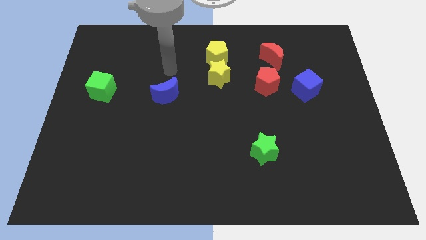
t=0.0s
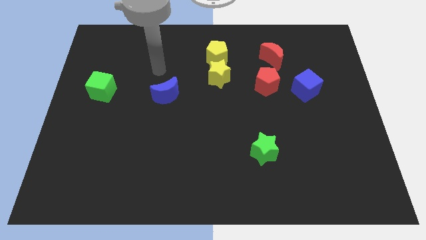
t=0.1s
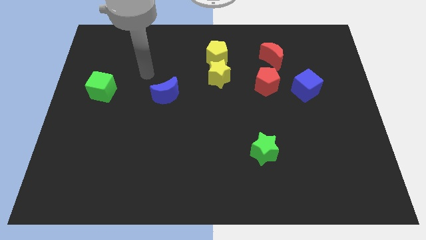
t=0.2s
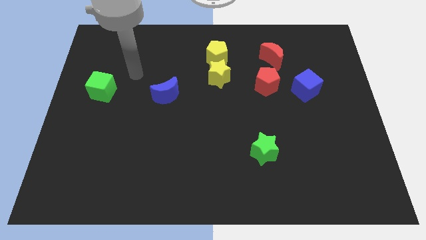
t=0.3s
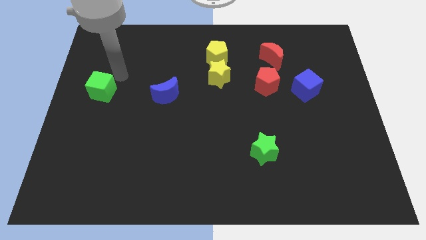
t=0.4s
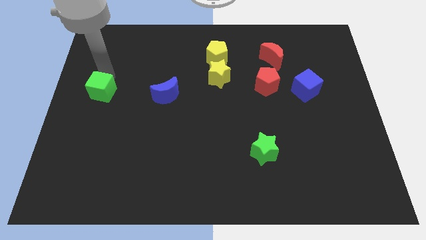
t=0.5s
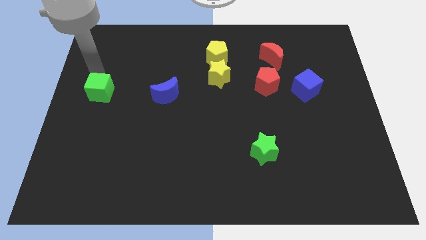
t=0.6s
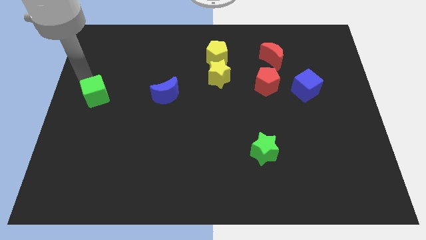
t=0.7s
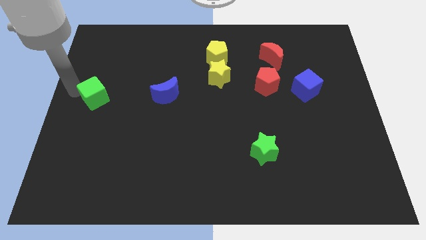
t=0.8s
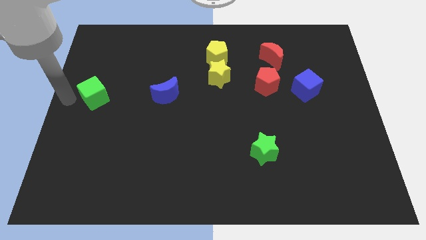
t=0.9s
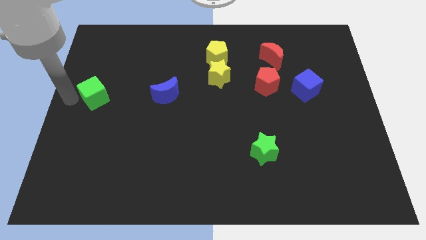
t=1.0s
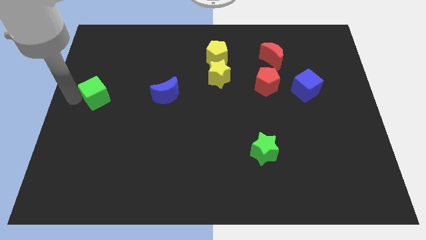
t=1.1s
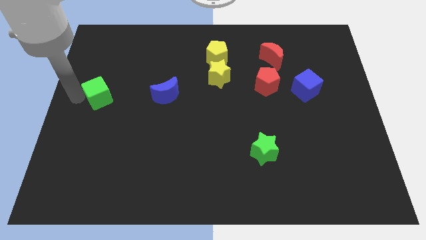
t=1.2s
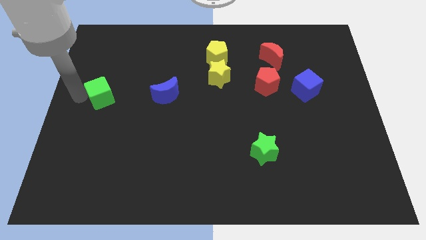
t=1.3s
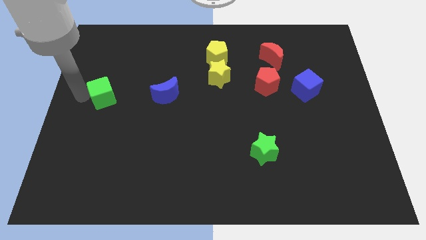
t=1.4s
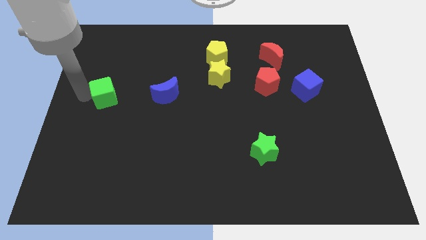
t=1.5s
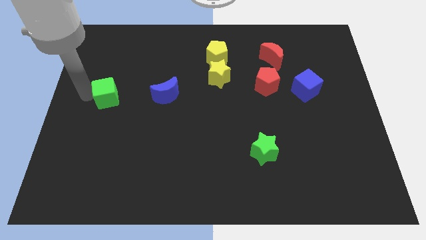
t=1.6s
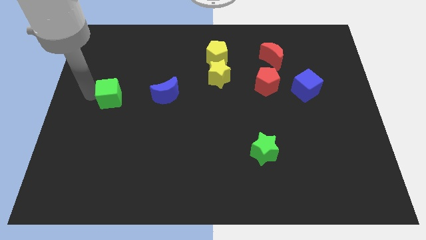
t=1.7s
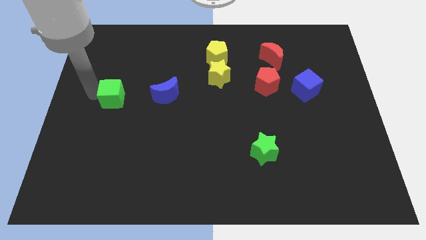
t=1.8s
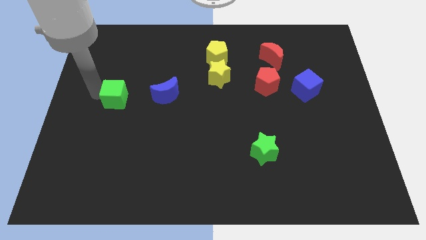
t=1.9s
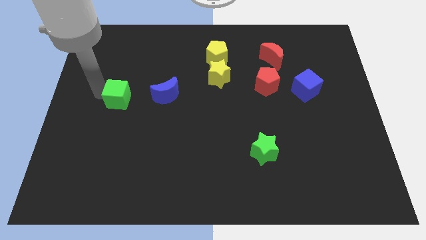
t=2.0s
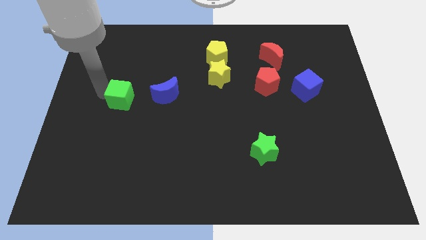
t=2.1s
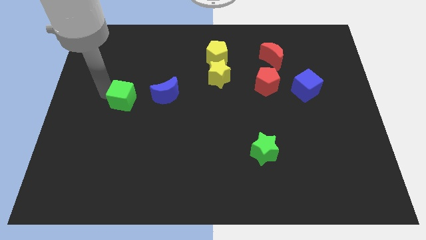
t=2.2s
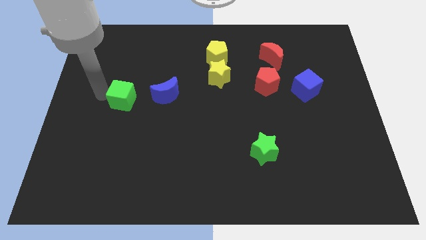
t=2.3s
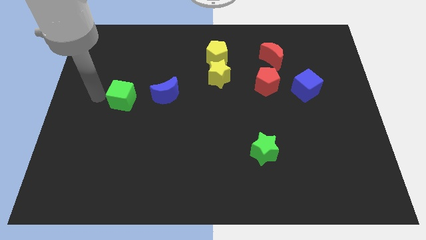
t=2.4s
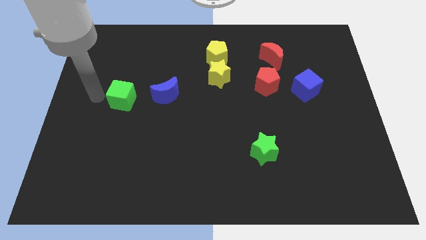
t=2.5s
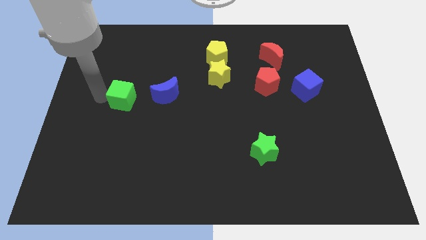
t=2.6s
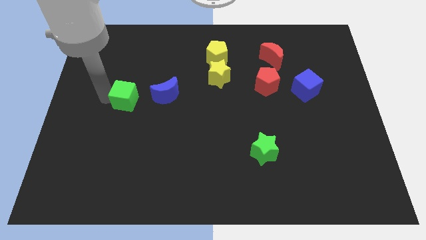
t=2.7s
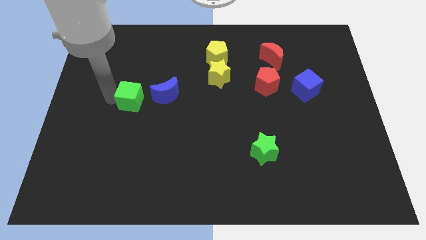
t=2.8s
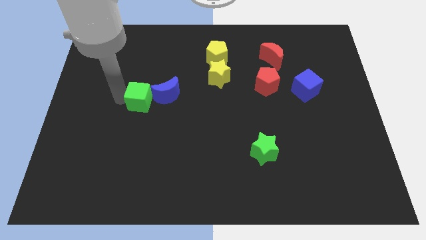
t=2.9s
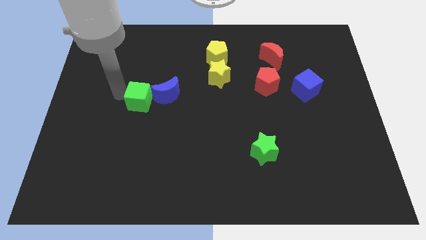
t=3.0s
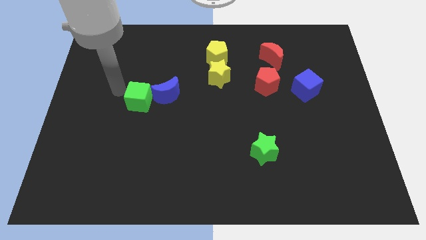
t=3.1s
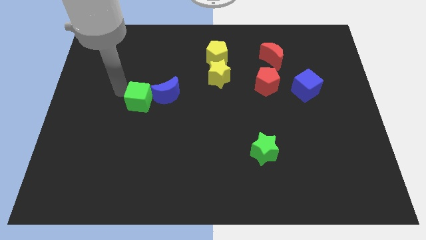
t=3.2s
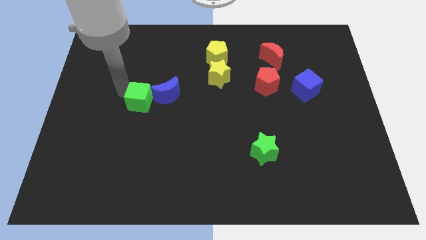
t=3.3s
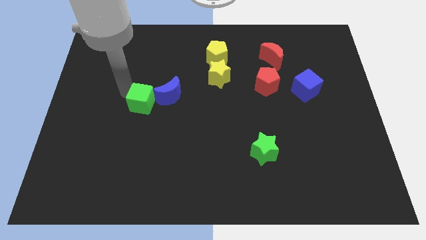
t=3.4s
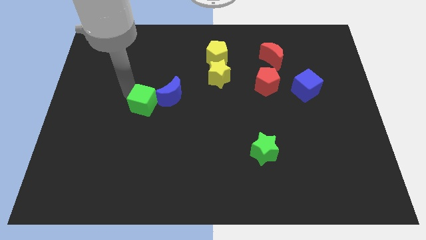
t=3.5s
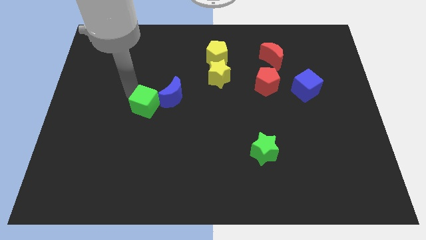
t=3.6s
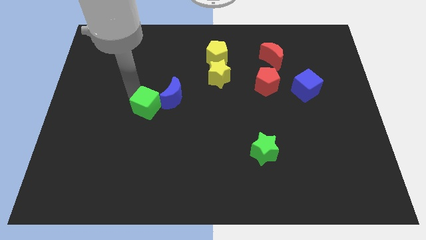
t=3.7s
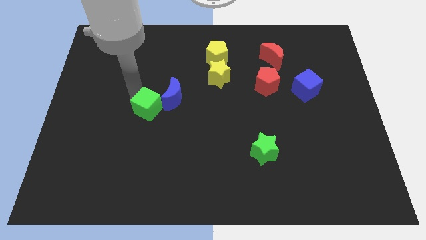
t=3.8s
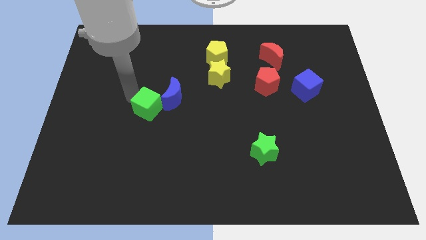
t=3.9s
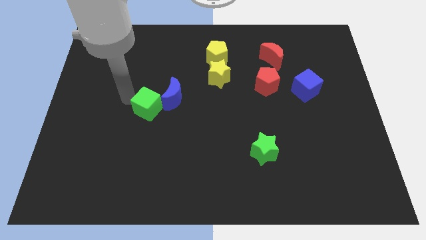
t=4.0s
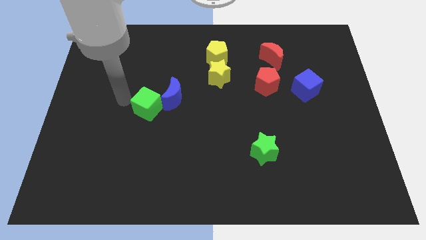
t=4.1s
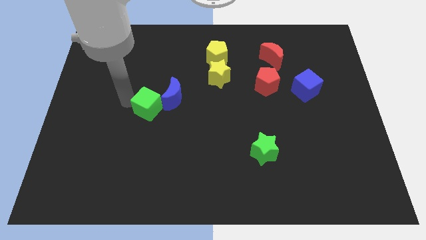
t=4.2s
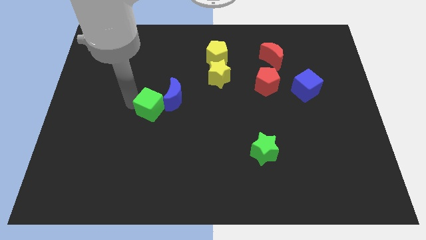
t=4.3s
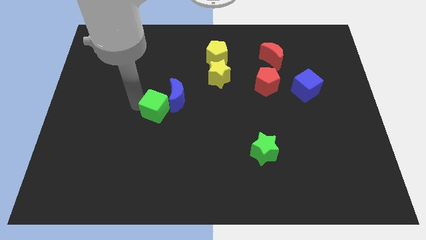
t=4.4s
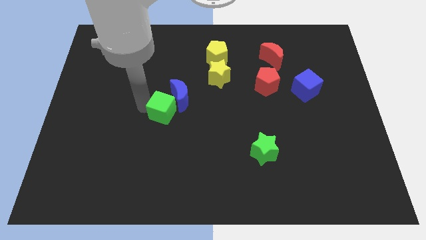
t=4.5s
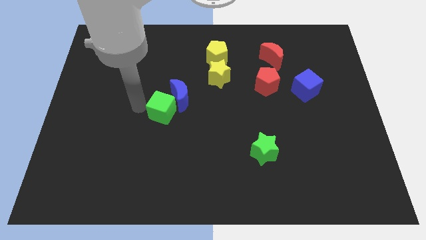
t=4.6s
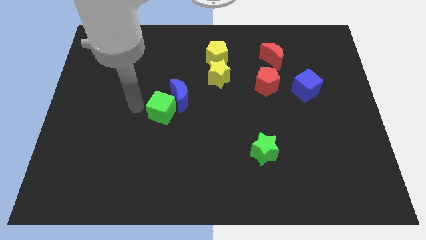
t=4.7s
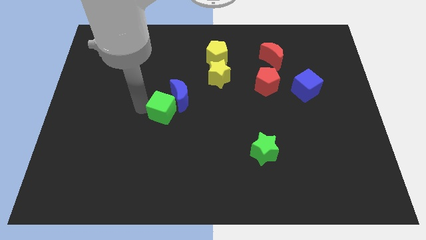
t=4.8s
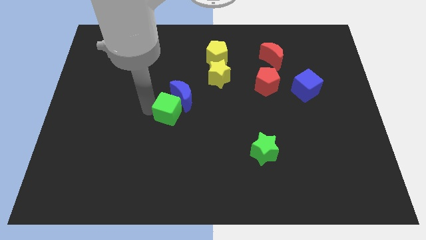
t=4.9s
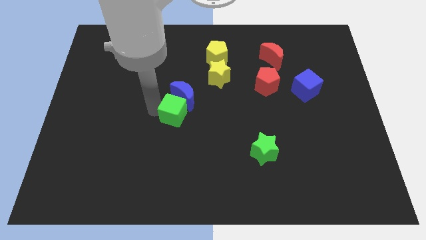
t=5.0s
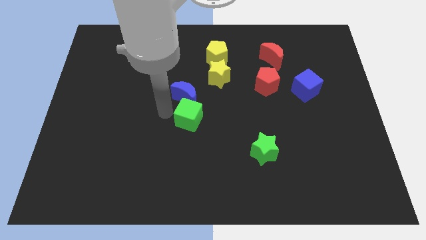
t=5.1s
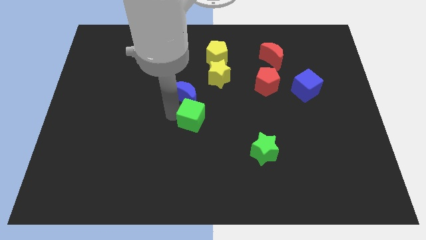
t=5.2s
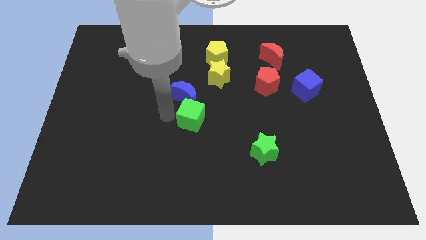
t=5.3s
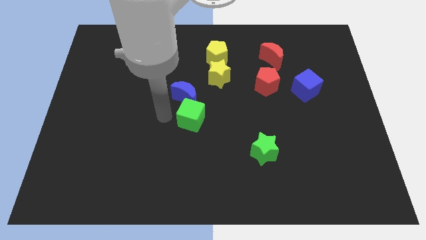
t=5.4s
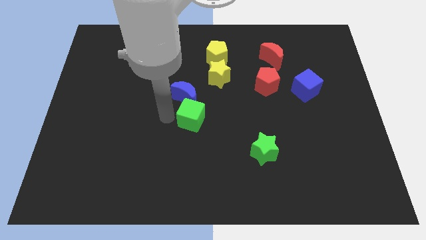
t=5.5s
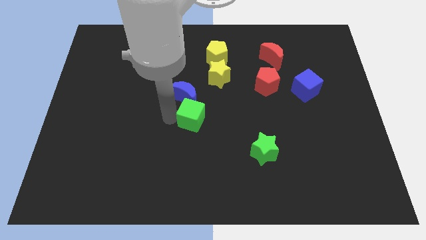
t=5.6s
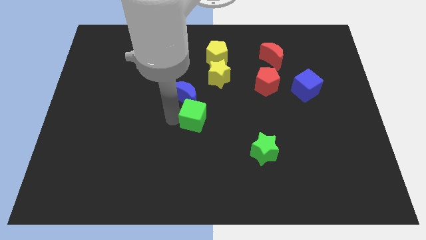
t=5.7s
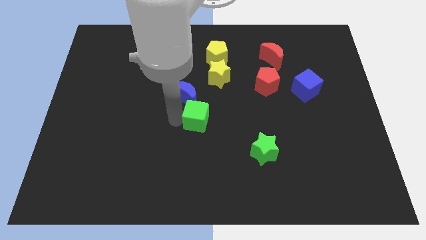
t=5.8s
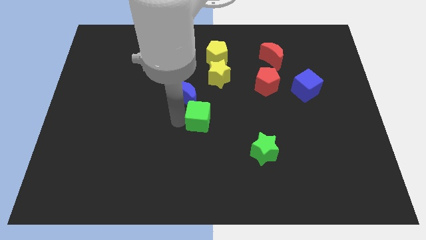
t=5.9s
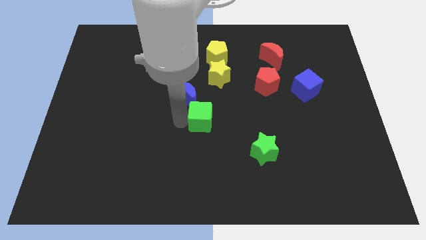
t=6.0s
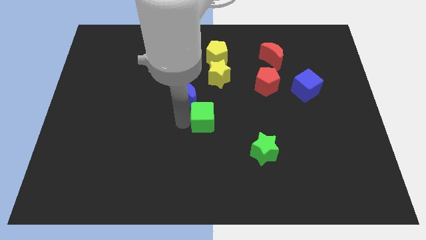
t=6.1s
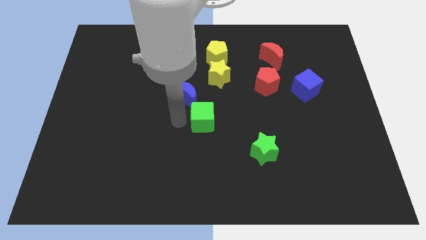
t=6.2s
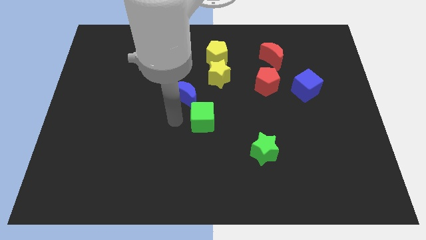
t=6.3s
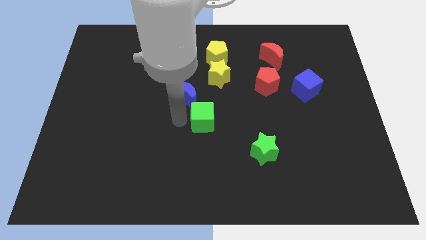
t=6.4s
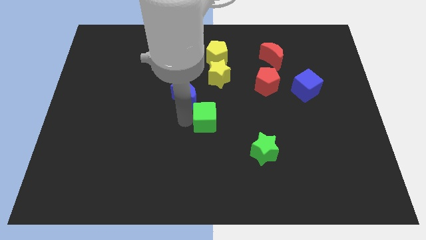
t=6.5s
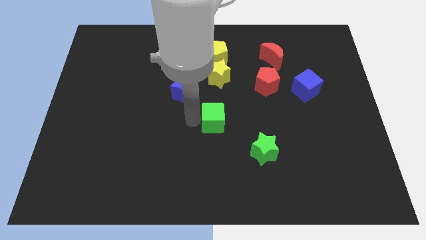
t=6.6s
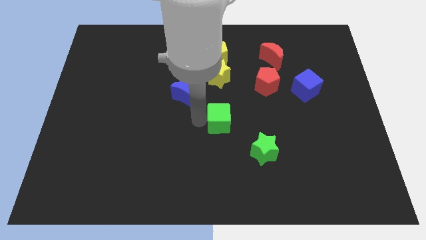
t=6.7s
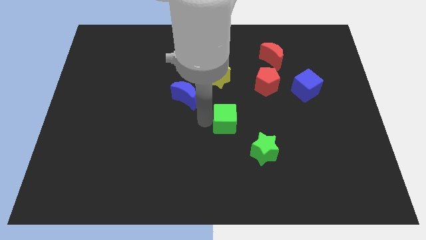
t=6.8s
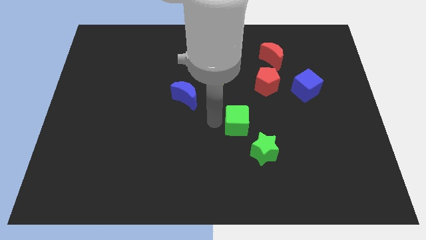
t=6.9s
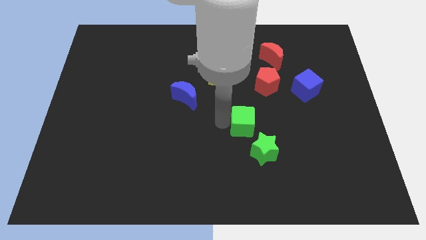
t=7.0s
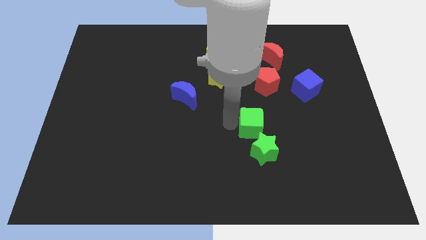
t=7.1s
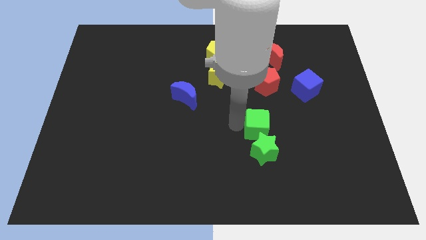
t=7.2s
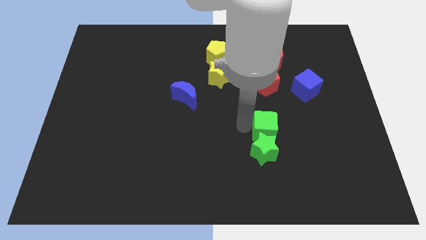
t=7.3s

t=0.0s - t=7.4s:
slide the green cube to the top right of the green star
